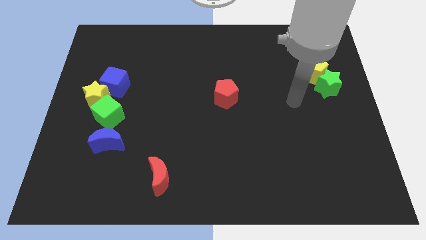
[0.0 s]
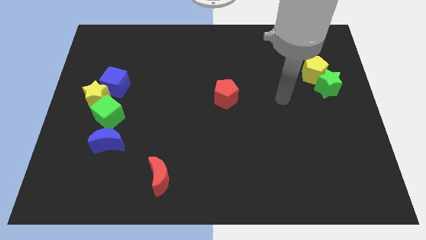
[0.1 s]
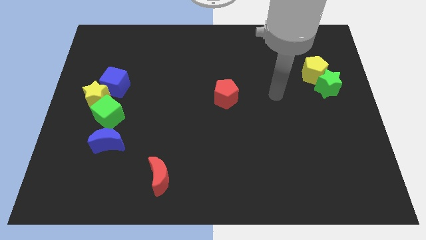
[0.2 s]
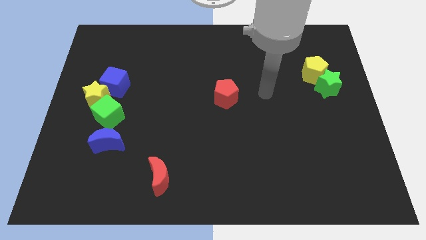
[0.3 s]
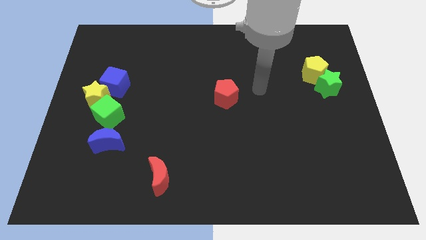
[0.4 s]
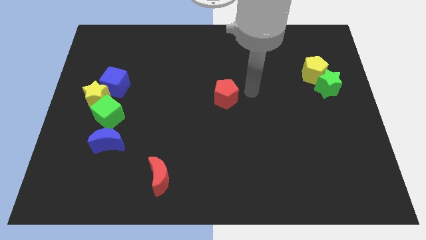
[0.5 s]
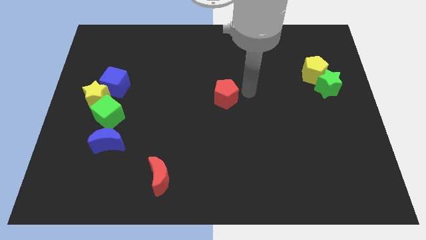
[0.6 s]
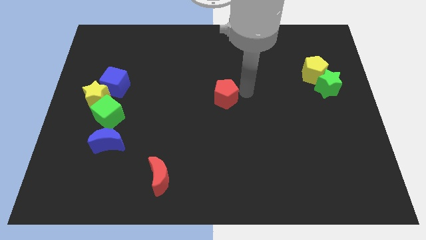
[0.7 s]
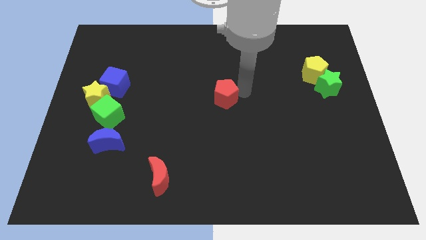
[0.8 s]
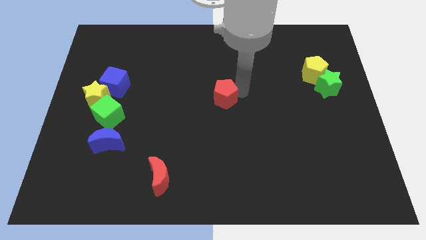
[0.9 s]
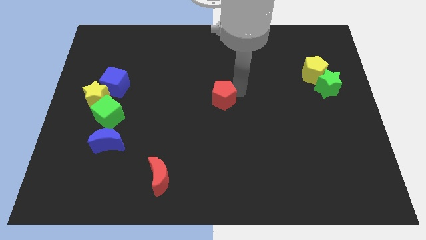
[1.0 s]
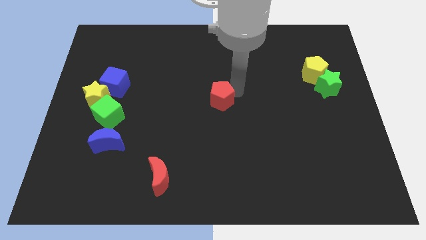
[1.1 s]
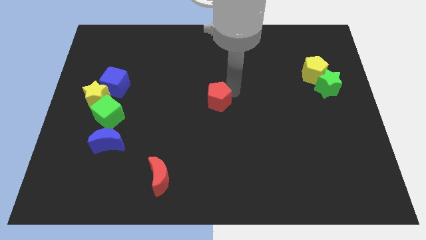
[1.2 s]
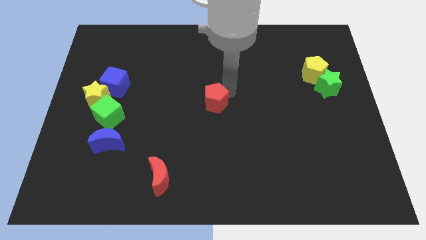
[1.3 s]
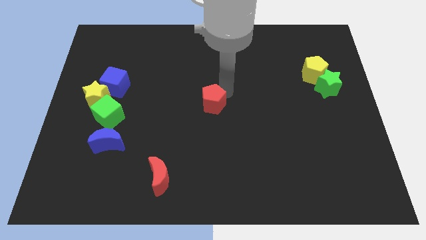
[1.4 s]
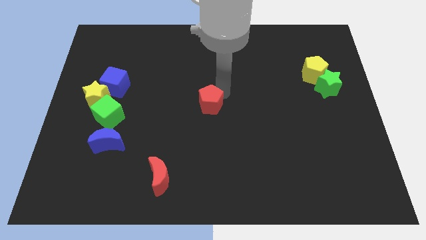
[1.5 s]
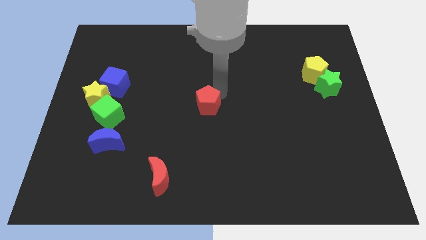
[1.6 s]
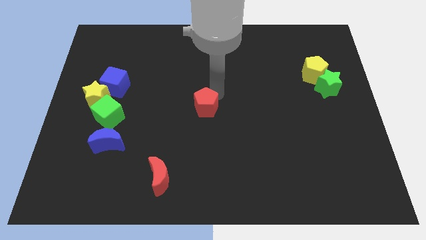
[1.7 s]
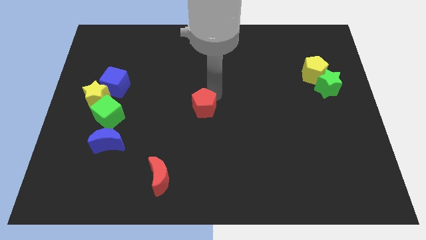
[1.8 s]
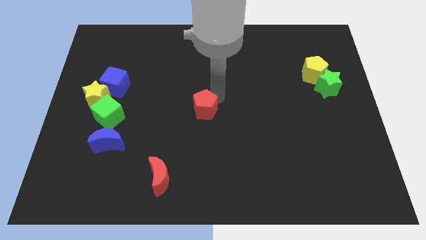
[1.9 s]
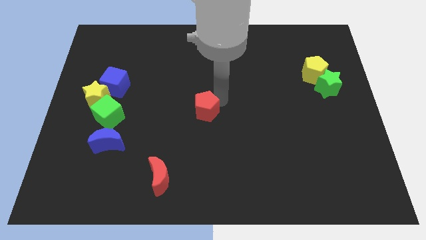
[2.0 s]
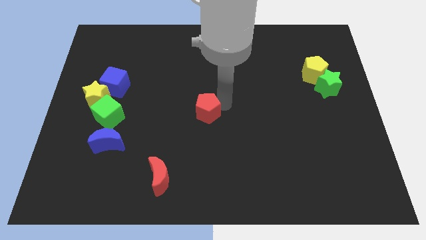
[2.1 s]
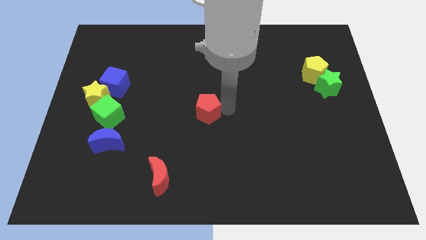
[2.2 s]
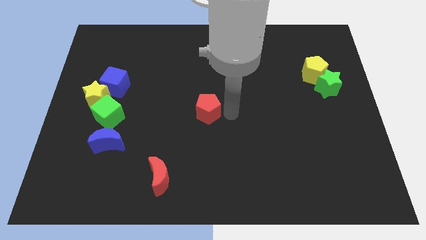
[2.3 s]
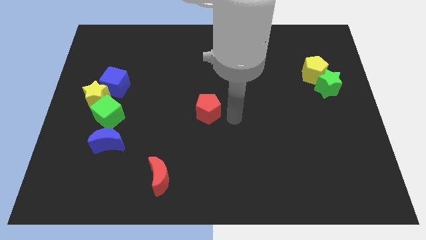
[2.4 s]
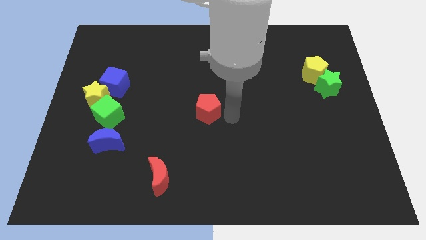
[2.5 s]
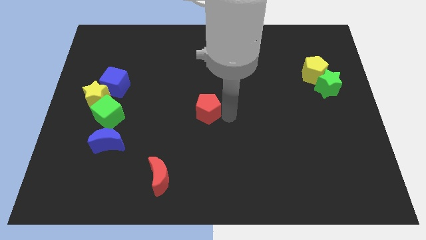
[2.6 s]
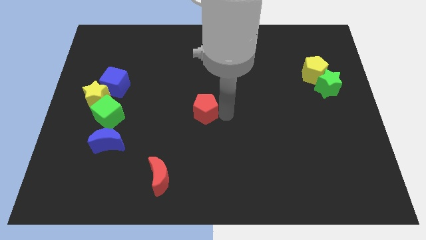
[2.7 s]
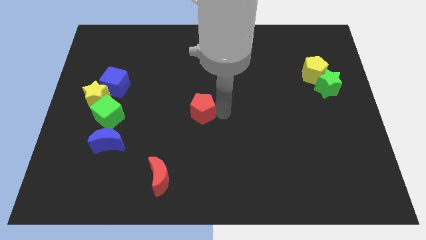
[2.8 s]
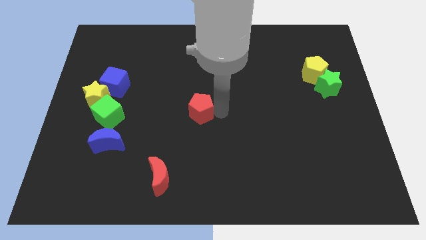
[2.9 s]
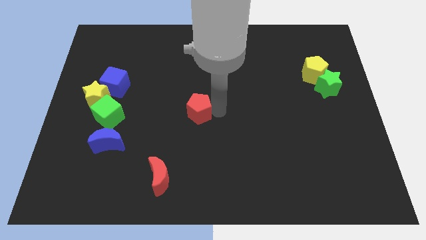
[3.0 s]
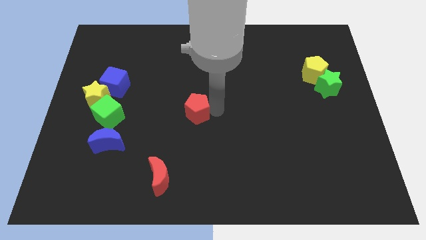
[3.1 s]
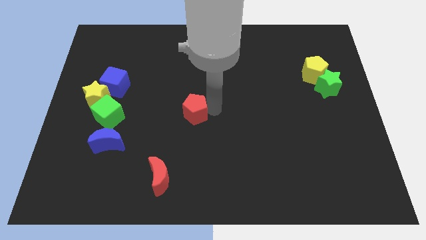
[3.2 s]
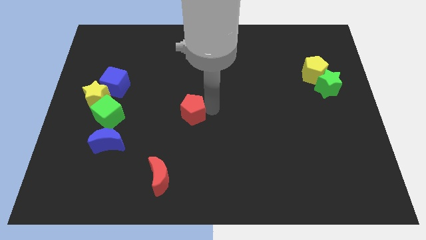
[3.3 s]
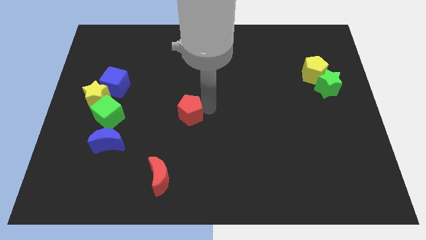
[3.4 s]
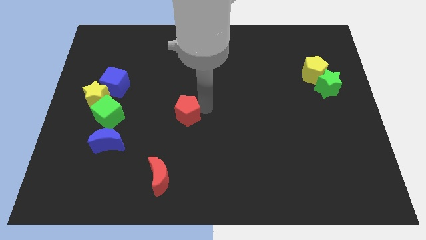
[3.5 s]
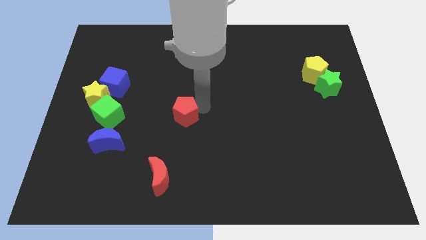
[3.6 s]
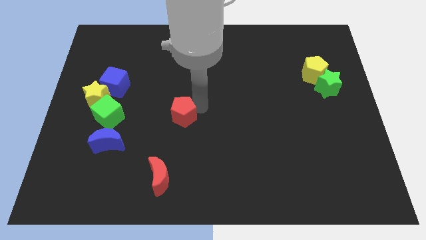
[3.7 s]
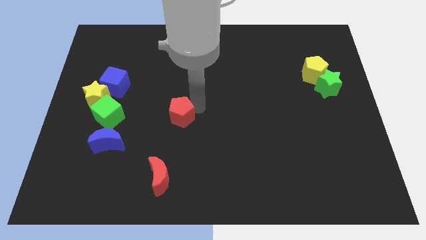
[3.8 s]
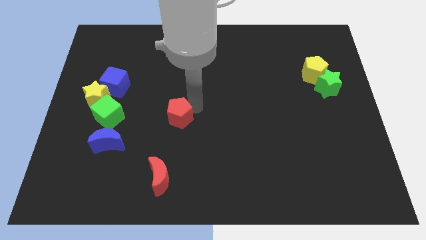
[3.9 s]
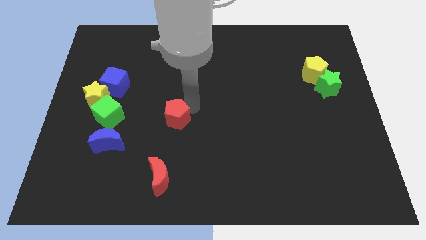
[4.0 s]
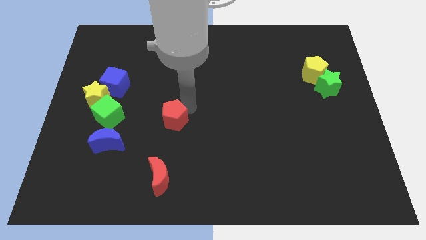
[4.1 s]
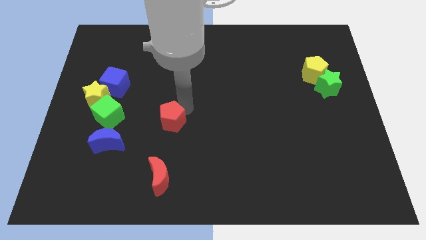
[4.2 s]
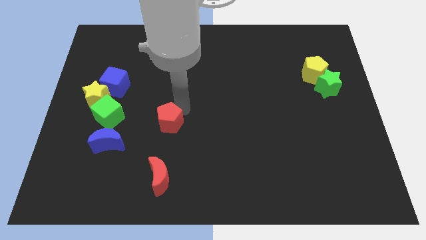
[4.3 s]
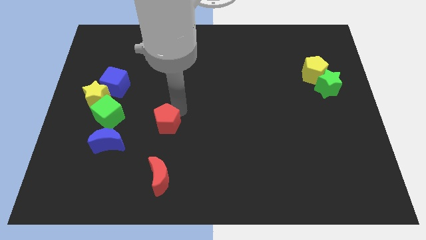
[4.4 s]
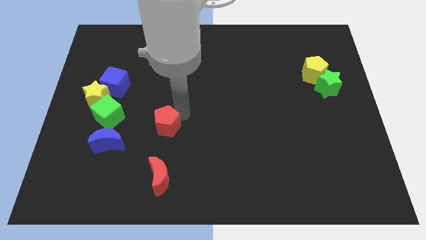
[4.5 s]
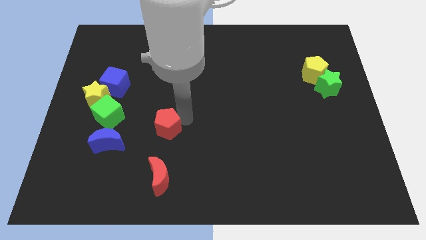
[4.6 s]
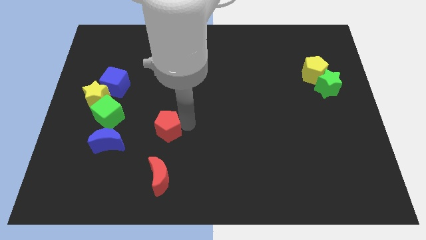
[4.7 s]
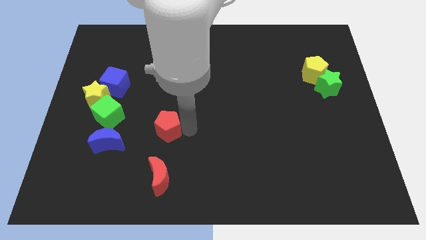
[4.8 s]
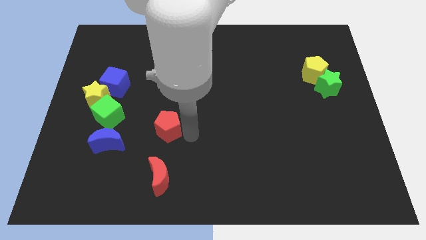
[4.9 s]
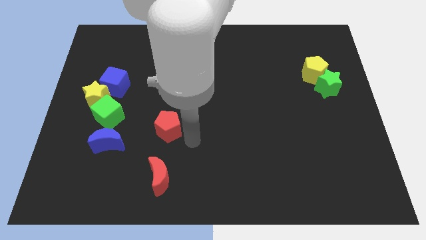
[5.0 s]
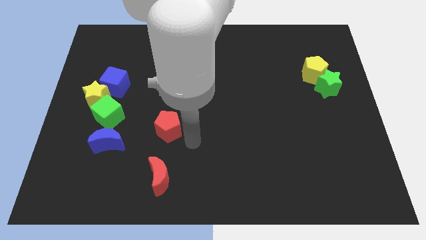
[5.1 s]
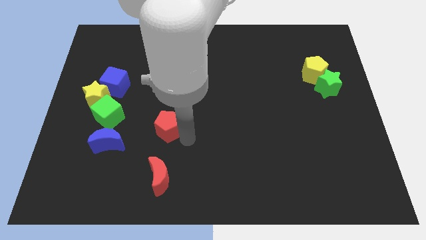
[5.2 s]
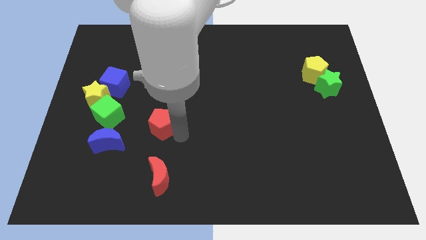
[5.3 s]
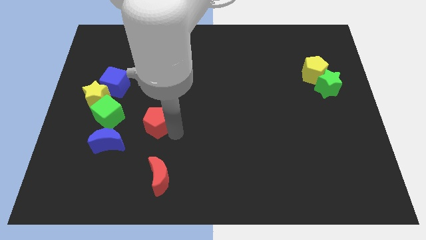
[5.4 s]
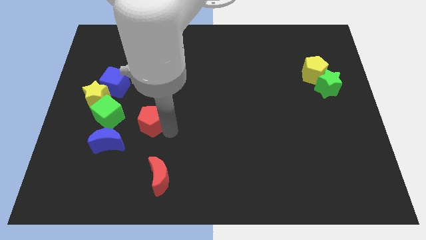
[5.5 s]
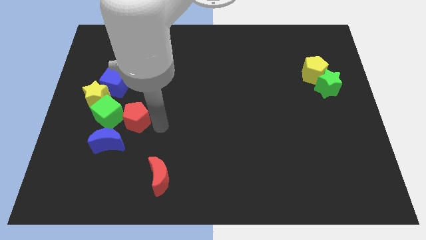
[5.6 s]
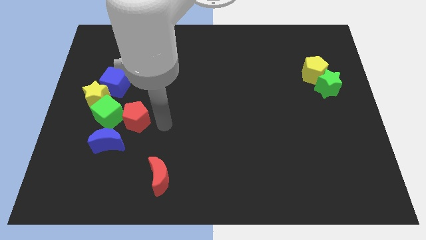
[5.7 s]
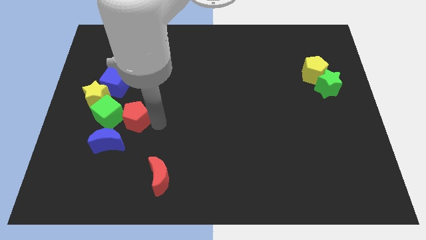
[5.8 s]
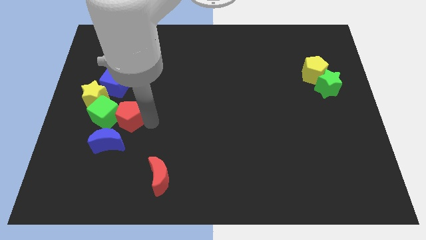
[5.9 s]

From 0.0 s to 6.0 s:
slide the red pentagon close to the green cube
